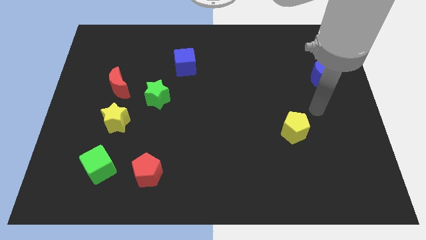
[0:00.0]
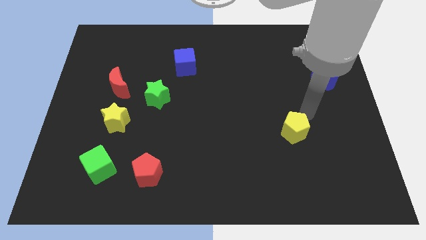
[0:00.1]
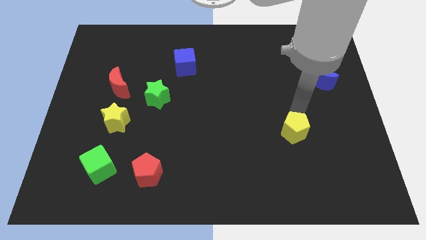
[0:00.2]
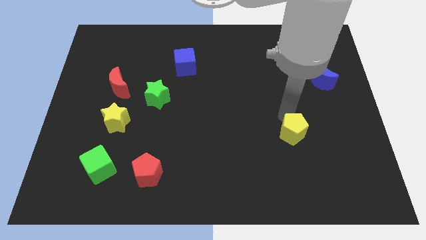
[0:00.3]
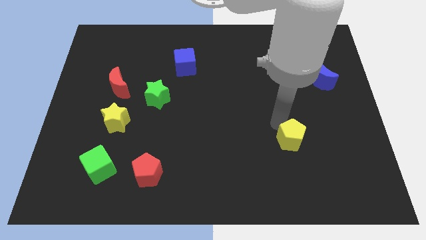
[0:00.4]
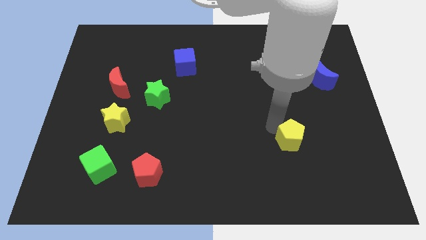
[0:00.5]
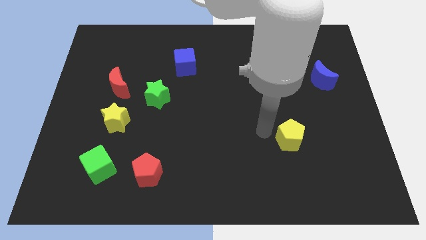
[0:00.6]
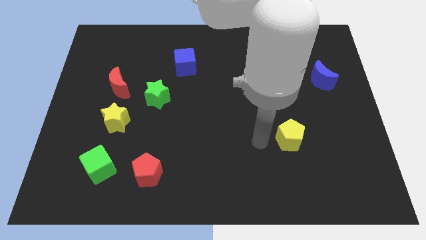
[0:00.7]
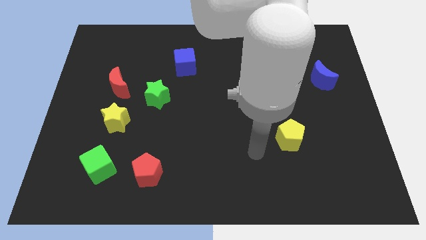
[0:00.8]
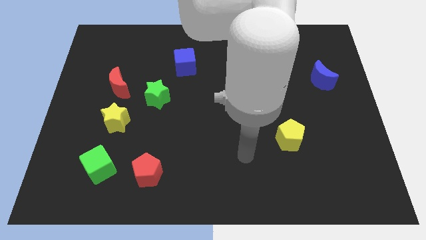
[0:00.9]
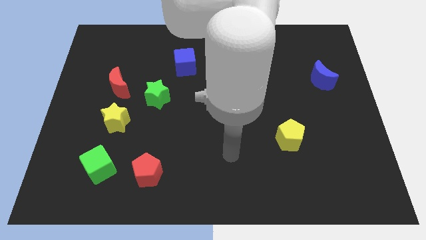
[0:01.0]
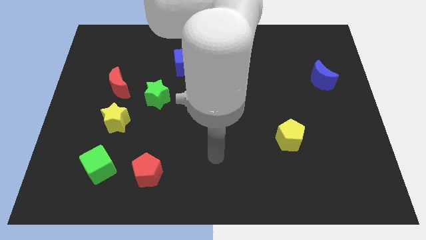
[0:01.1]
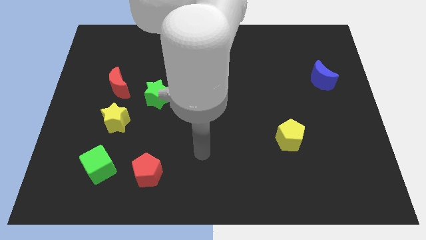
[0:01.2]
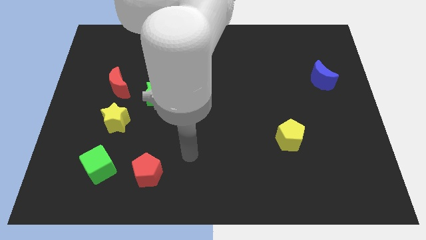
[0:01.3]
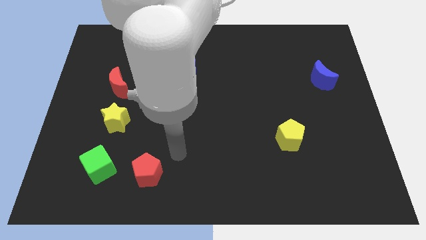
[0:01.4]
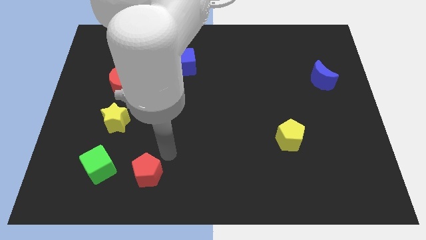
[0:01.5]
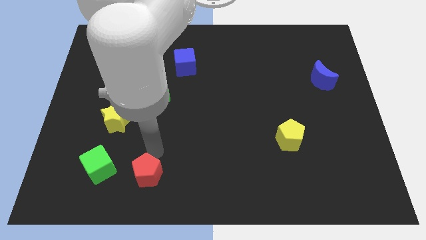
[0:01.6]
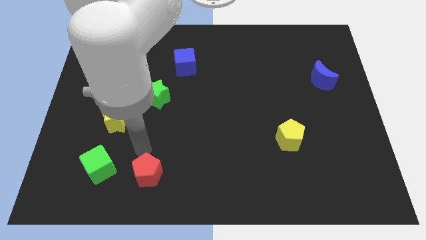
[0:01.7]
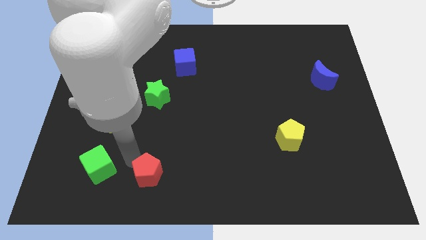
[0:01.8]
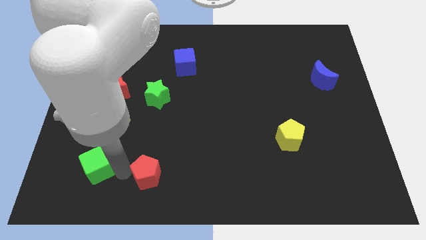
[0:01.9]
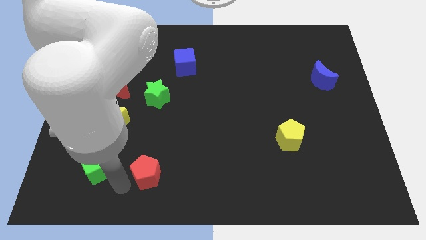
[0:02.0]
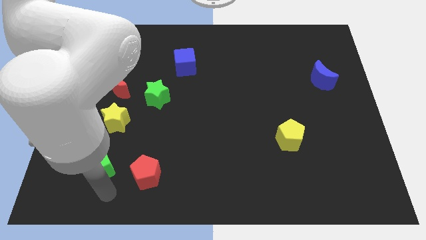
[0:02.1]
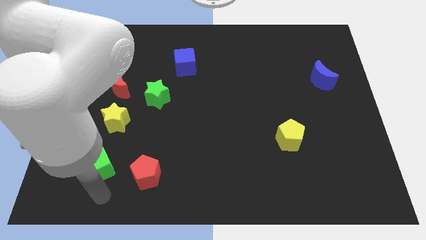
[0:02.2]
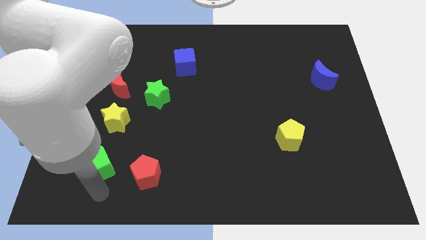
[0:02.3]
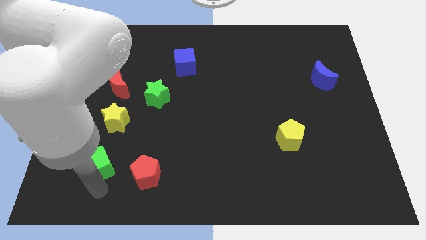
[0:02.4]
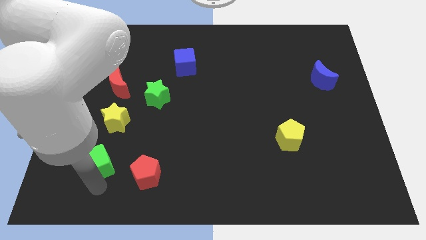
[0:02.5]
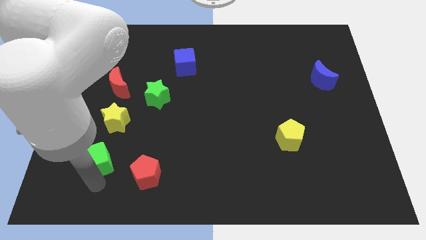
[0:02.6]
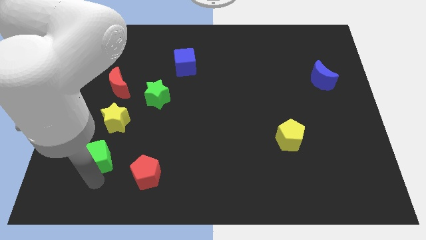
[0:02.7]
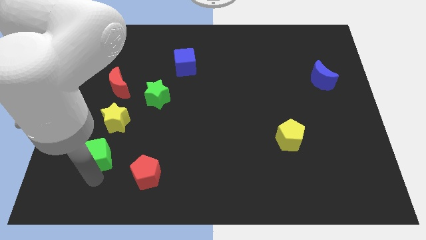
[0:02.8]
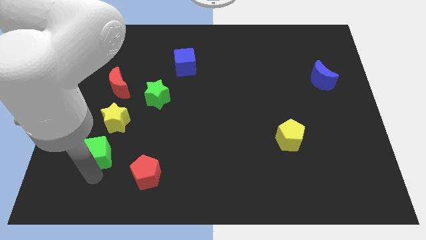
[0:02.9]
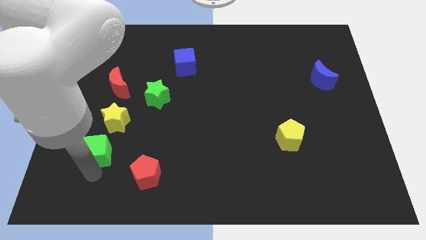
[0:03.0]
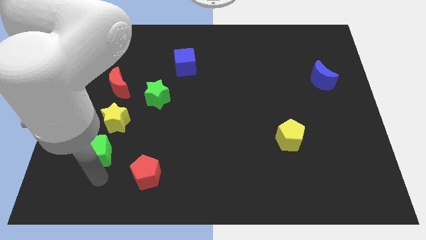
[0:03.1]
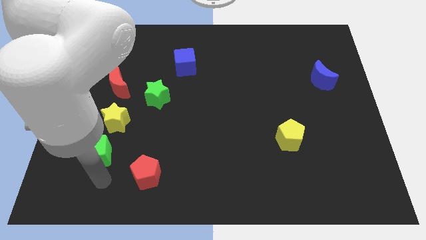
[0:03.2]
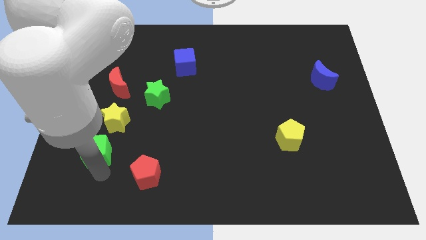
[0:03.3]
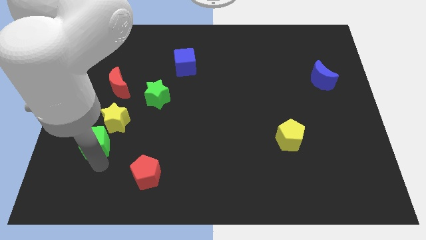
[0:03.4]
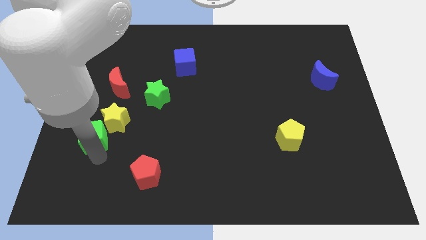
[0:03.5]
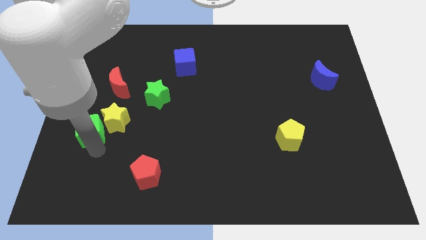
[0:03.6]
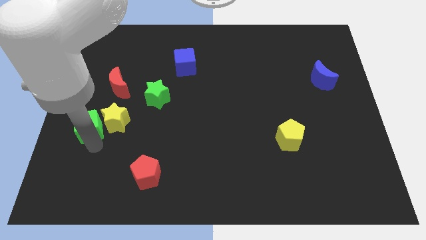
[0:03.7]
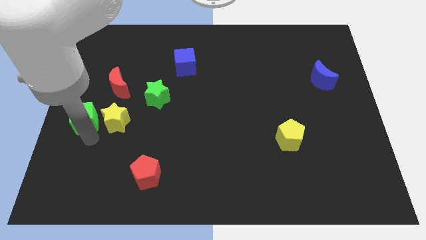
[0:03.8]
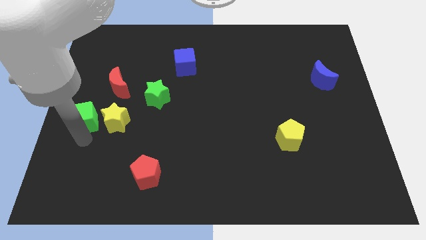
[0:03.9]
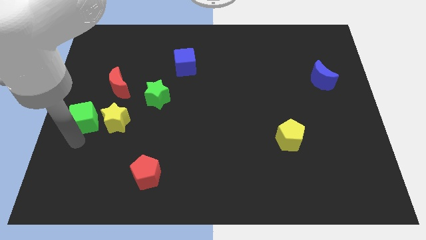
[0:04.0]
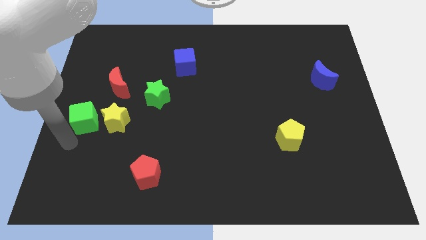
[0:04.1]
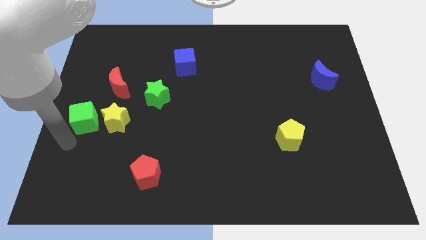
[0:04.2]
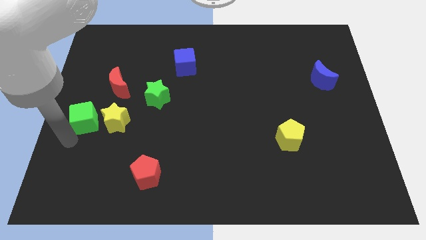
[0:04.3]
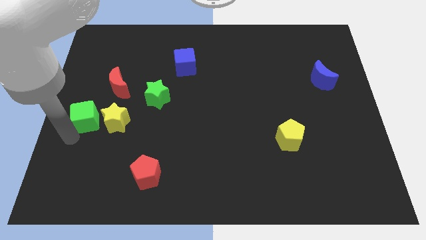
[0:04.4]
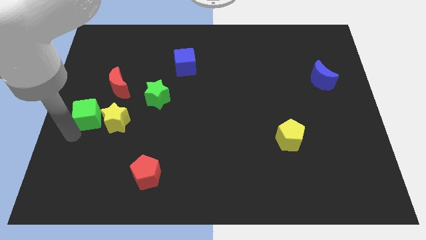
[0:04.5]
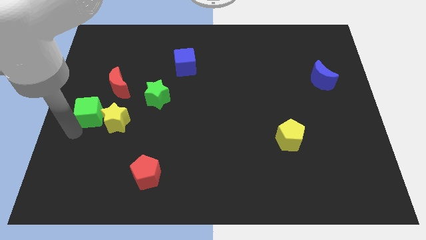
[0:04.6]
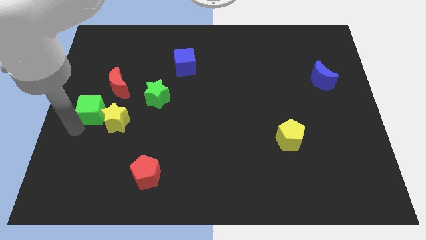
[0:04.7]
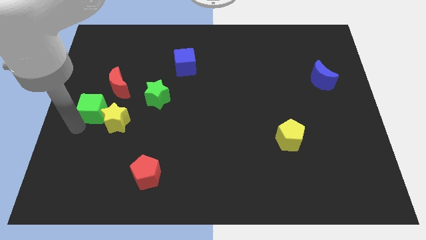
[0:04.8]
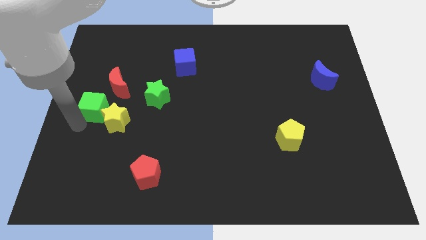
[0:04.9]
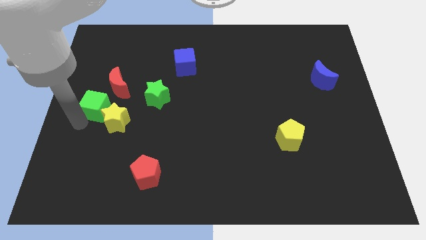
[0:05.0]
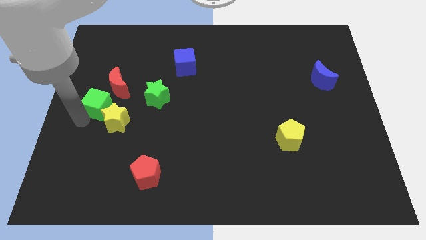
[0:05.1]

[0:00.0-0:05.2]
move the green cube above the yellow star

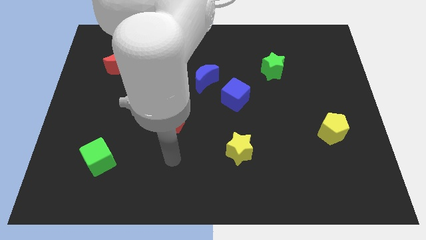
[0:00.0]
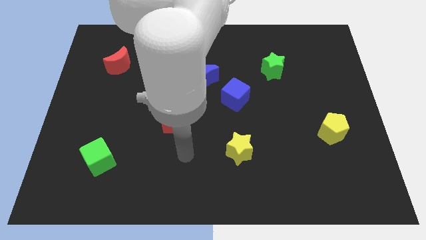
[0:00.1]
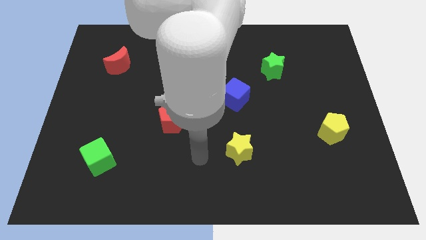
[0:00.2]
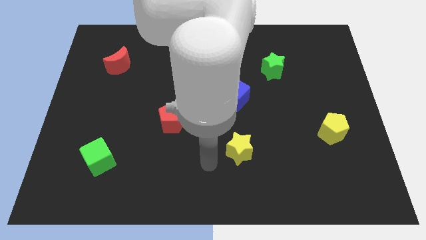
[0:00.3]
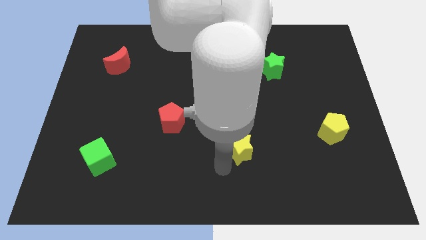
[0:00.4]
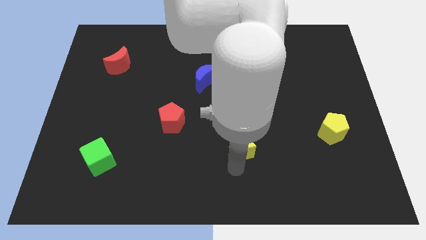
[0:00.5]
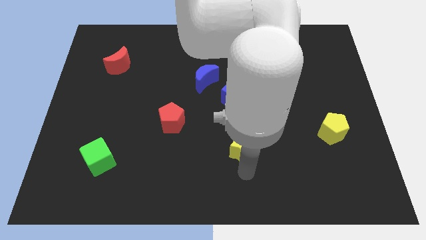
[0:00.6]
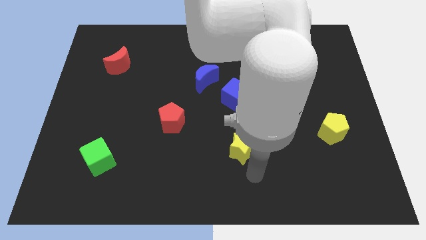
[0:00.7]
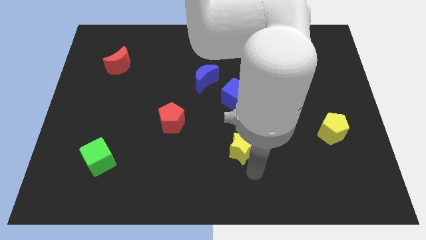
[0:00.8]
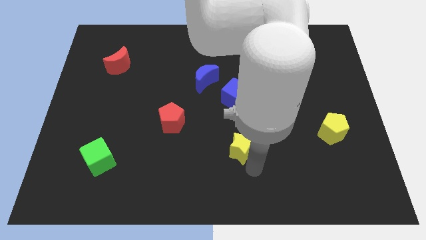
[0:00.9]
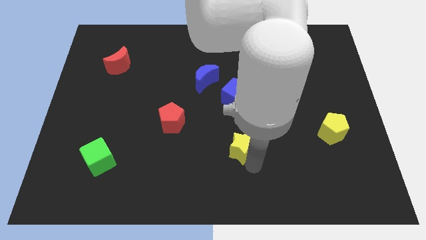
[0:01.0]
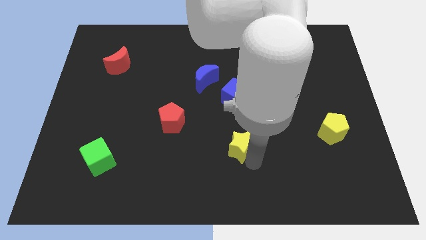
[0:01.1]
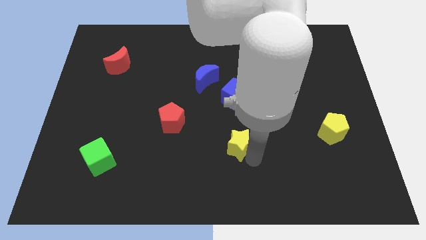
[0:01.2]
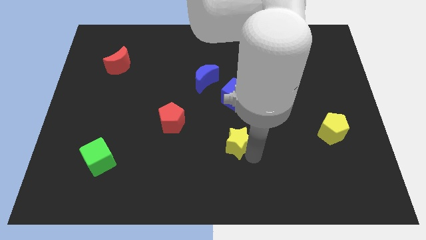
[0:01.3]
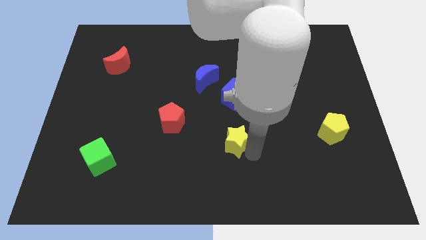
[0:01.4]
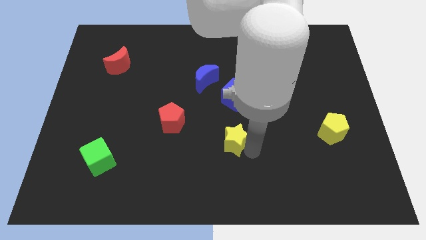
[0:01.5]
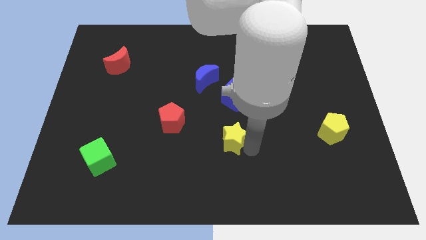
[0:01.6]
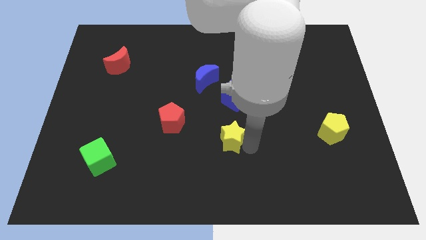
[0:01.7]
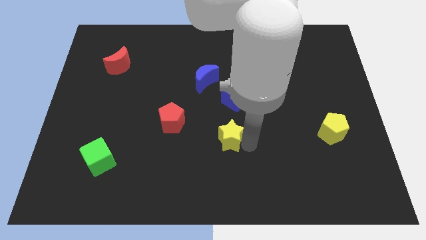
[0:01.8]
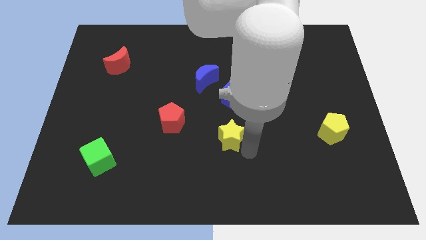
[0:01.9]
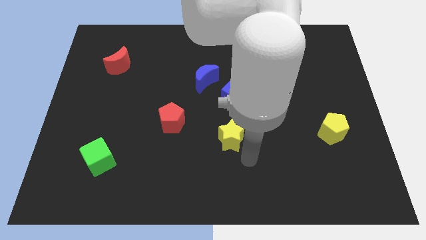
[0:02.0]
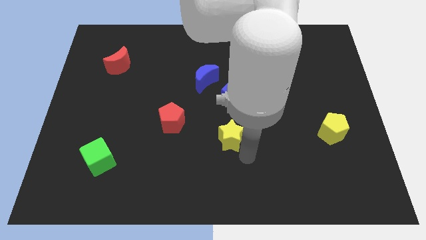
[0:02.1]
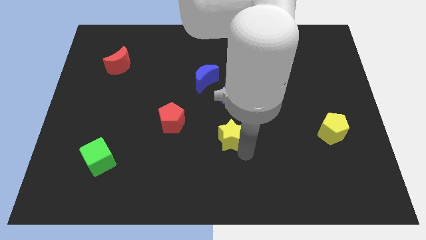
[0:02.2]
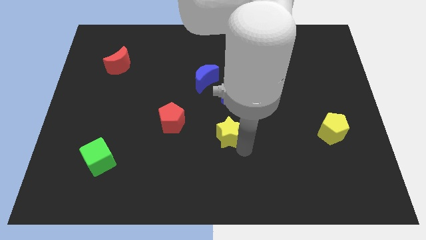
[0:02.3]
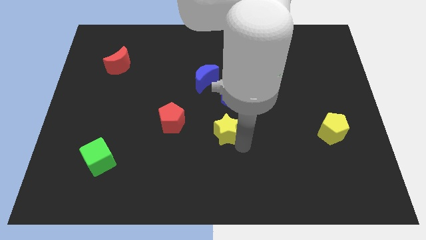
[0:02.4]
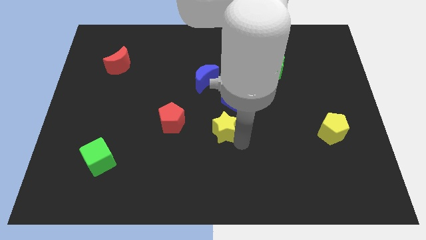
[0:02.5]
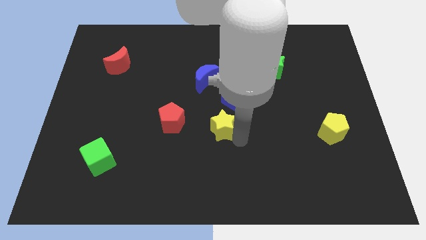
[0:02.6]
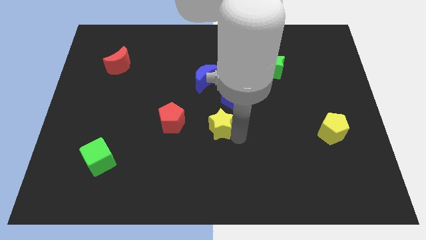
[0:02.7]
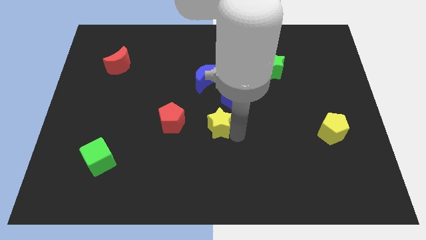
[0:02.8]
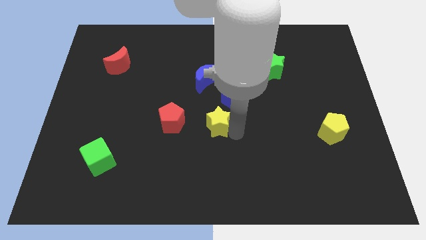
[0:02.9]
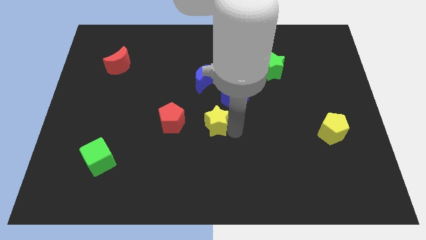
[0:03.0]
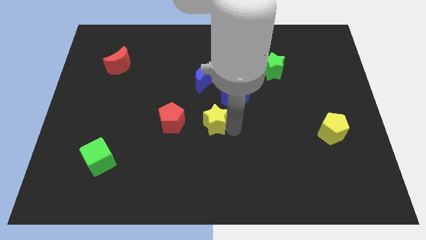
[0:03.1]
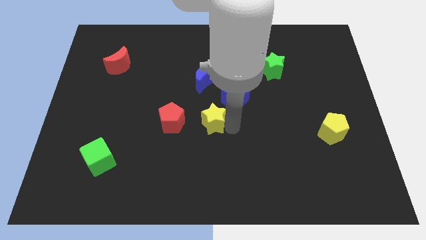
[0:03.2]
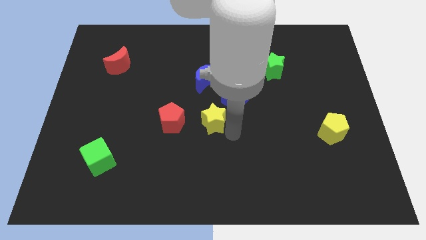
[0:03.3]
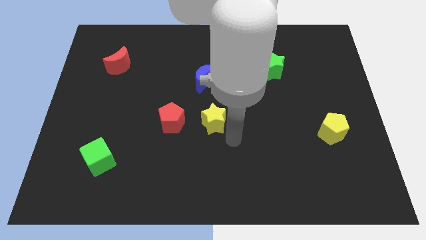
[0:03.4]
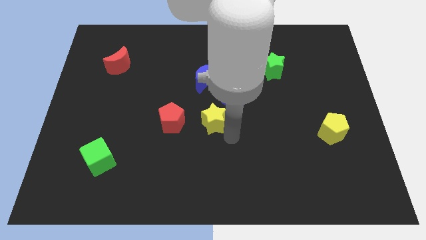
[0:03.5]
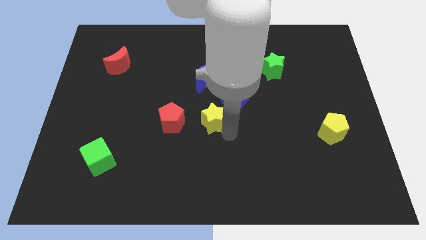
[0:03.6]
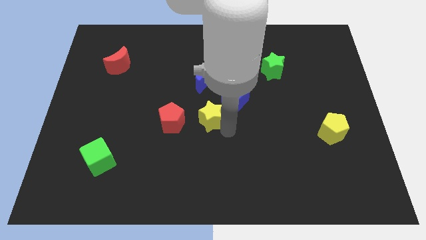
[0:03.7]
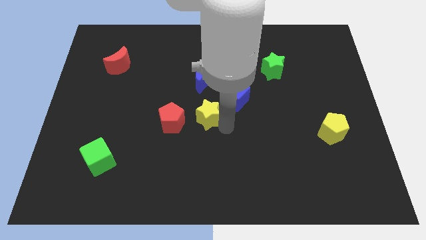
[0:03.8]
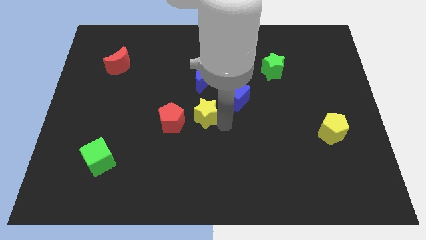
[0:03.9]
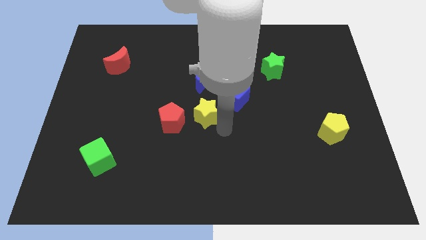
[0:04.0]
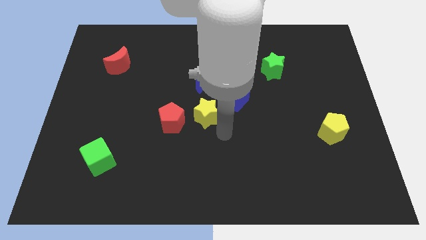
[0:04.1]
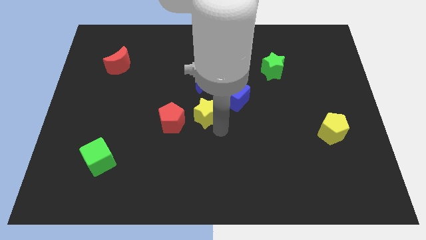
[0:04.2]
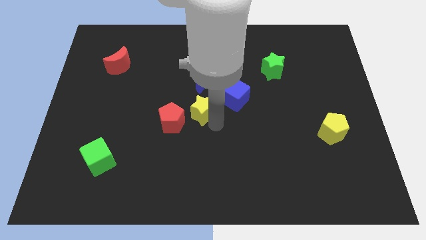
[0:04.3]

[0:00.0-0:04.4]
put the yellow star to the left of the blue cube
